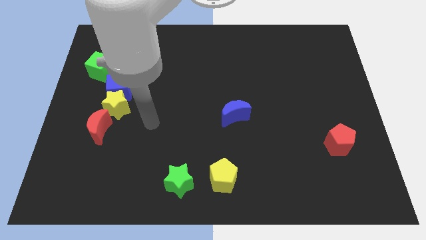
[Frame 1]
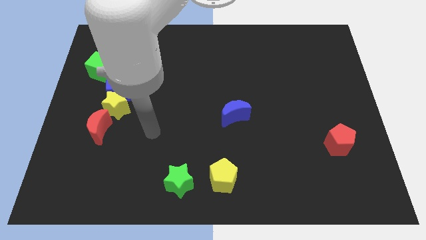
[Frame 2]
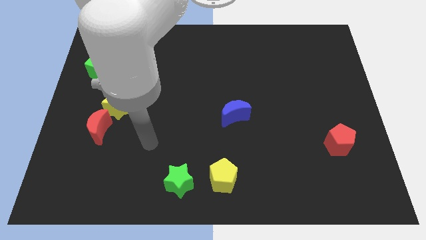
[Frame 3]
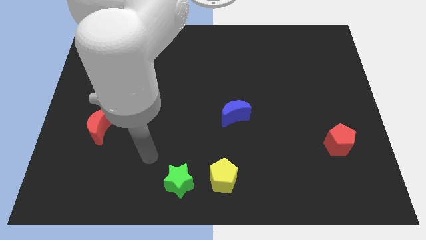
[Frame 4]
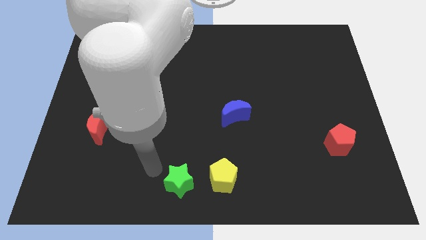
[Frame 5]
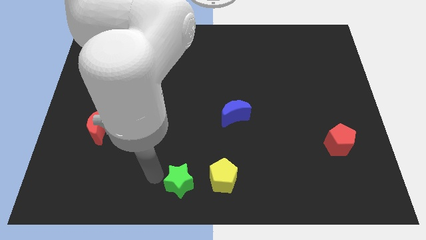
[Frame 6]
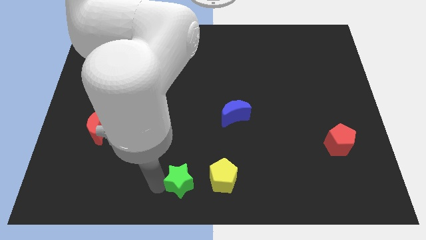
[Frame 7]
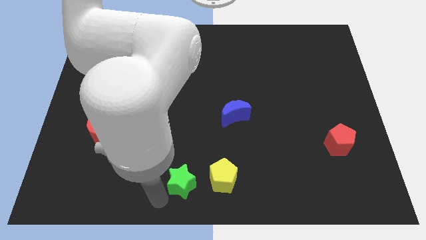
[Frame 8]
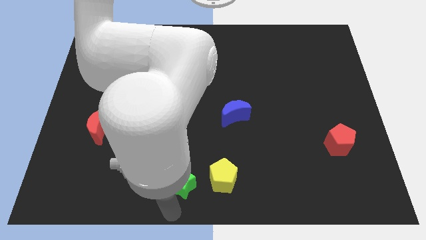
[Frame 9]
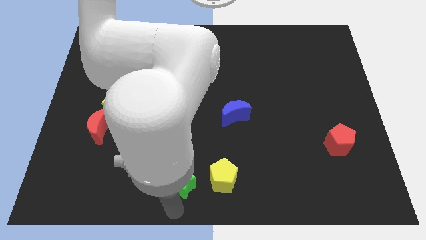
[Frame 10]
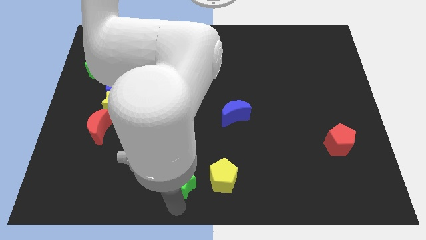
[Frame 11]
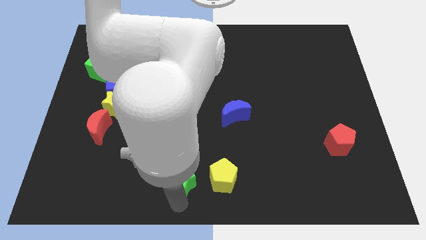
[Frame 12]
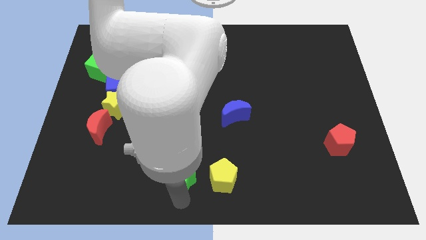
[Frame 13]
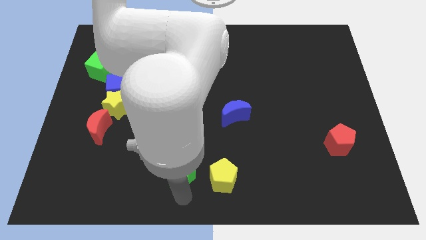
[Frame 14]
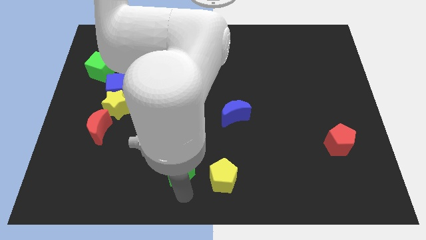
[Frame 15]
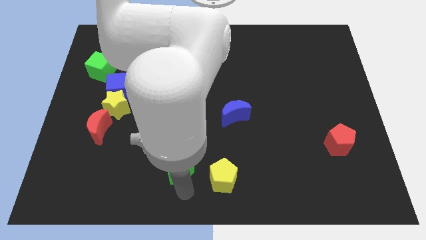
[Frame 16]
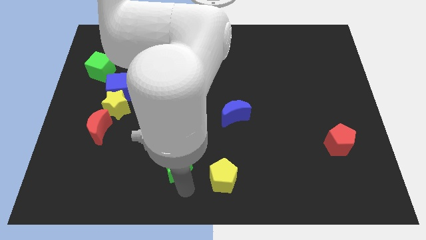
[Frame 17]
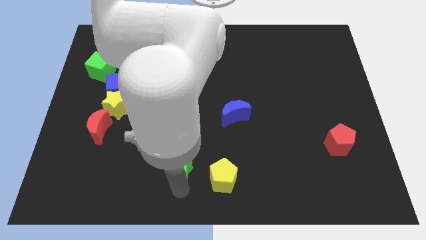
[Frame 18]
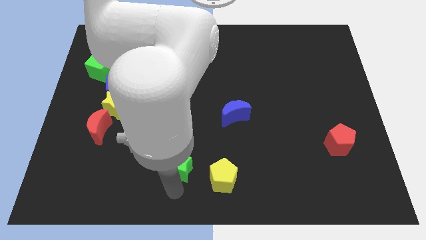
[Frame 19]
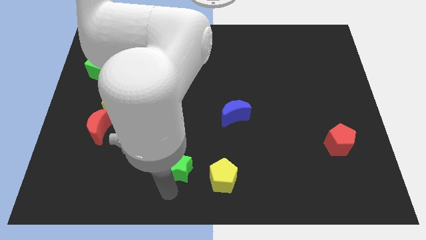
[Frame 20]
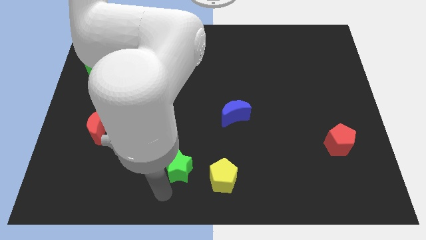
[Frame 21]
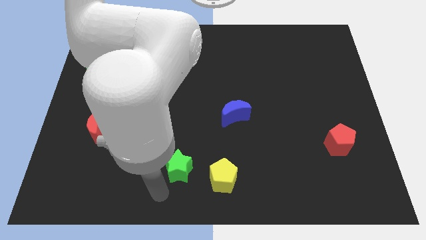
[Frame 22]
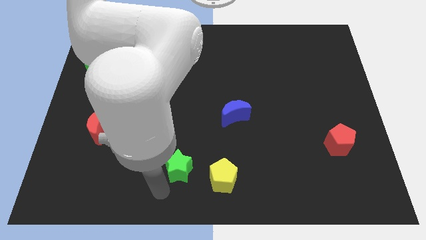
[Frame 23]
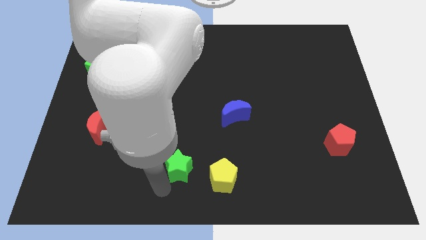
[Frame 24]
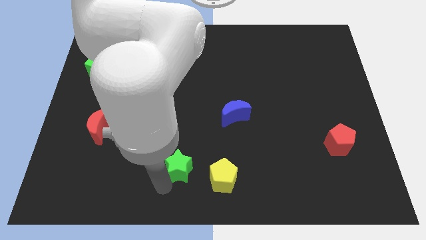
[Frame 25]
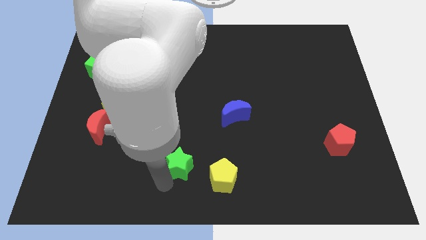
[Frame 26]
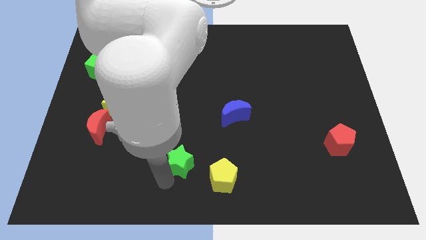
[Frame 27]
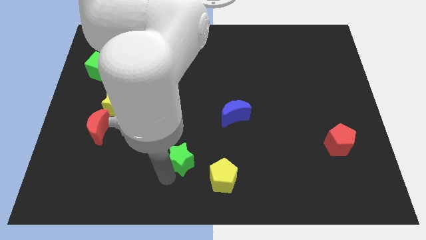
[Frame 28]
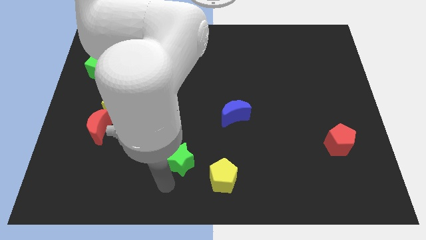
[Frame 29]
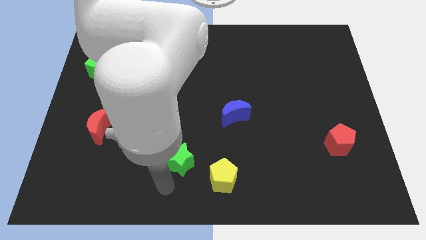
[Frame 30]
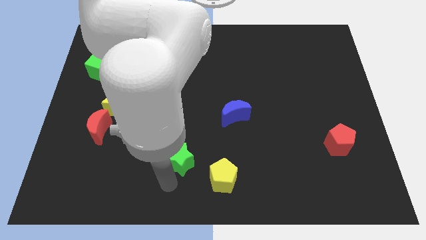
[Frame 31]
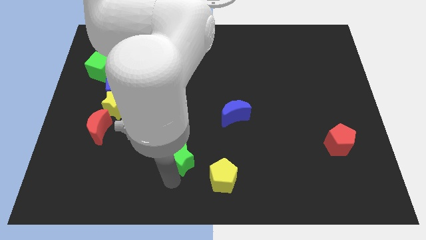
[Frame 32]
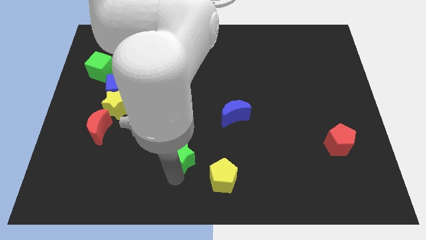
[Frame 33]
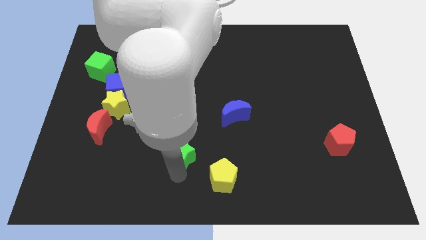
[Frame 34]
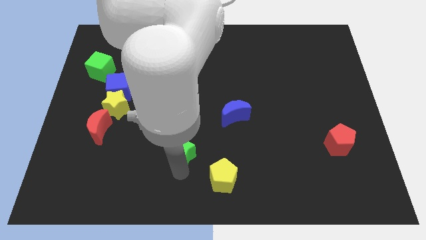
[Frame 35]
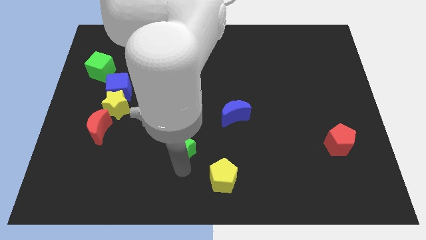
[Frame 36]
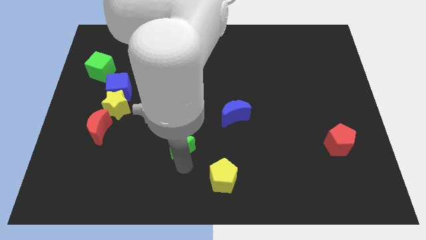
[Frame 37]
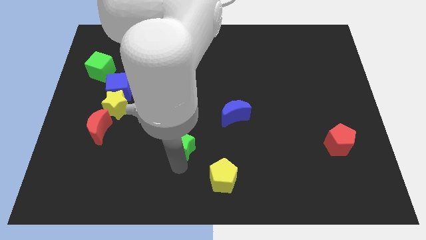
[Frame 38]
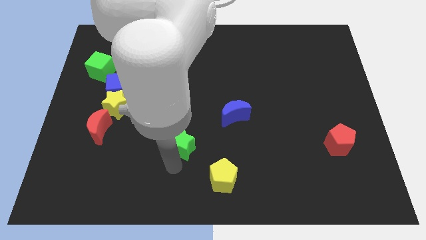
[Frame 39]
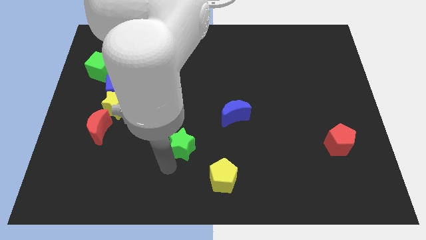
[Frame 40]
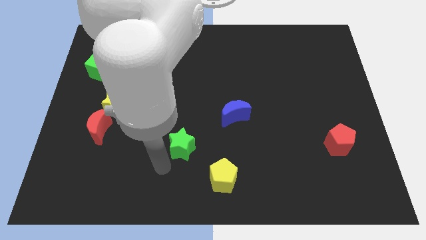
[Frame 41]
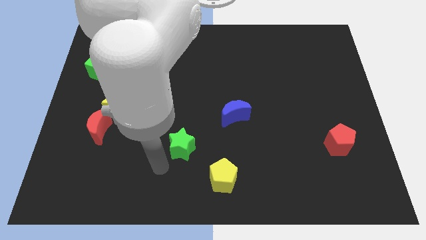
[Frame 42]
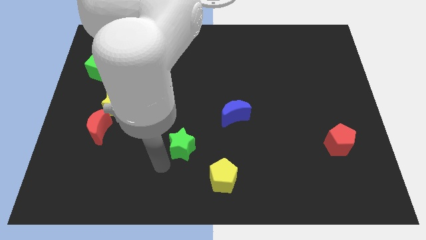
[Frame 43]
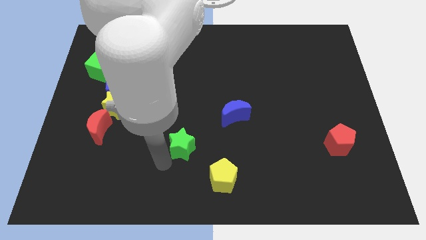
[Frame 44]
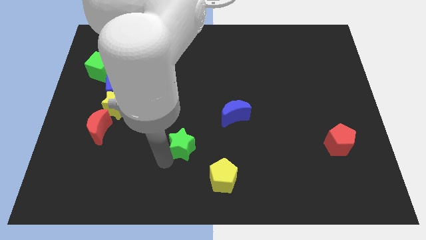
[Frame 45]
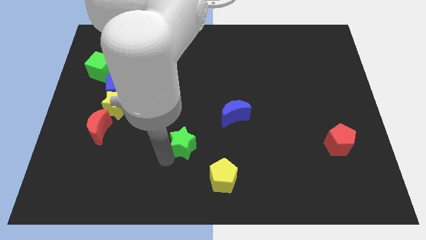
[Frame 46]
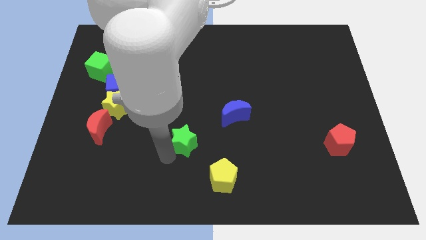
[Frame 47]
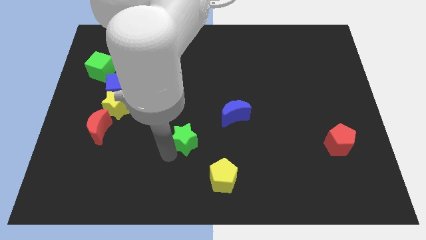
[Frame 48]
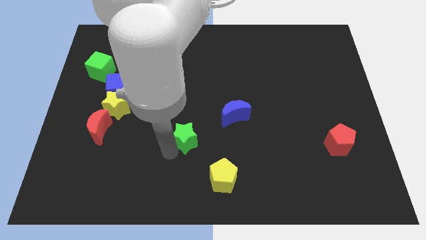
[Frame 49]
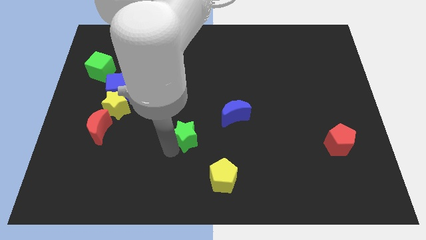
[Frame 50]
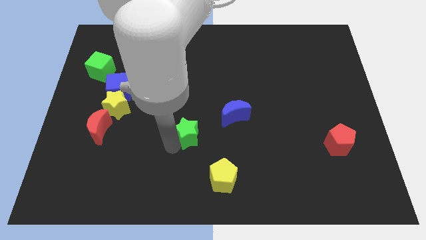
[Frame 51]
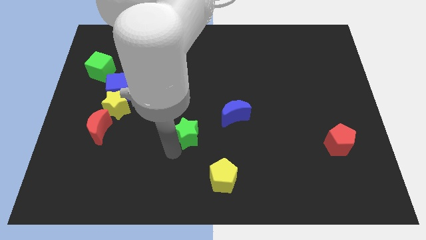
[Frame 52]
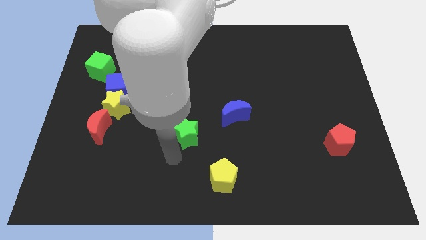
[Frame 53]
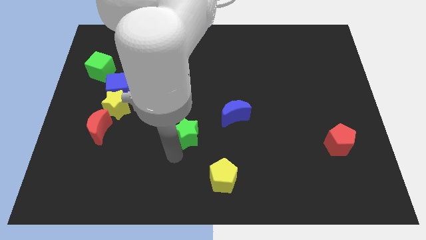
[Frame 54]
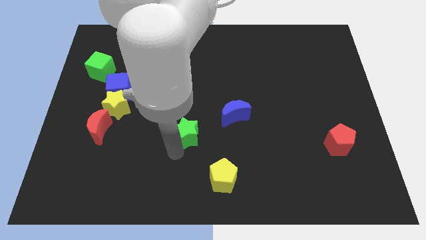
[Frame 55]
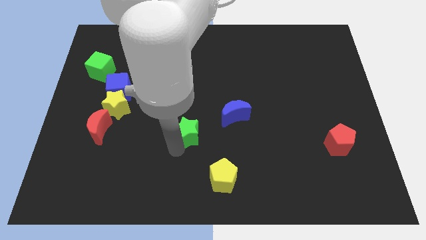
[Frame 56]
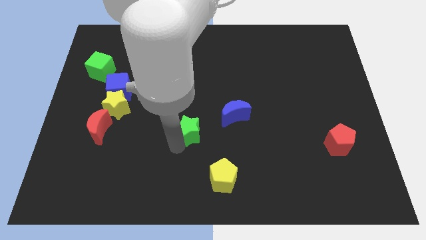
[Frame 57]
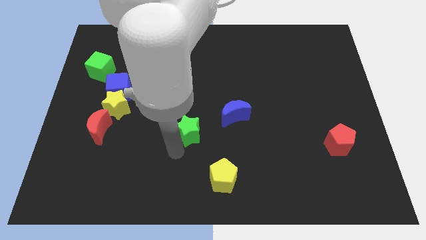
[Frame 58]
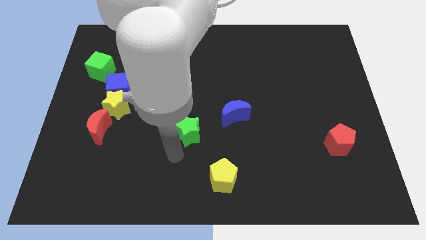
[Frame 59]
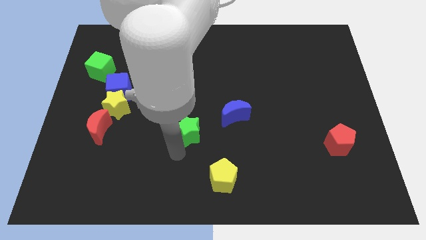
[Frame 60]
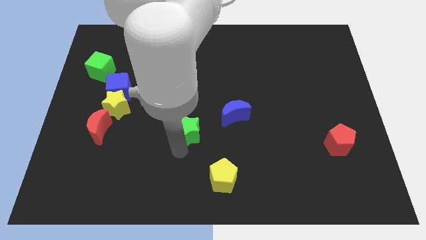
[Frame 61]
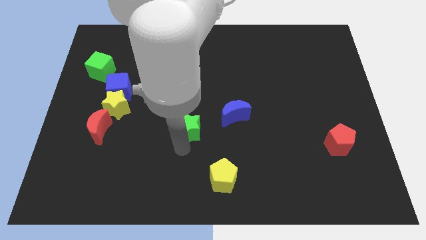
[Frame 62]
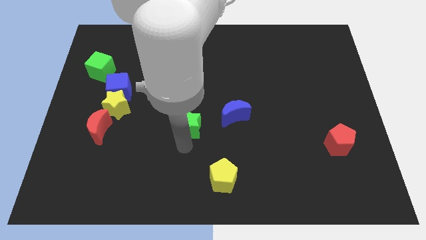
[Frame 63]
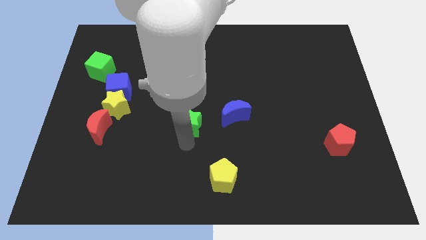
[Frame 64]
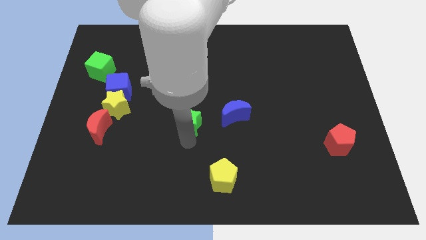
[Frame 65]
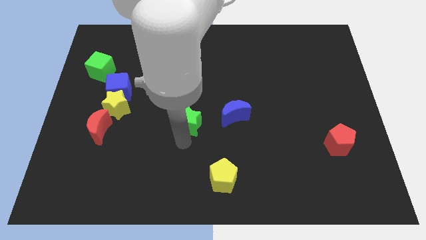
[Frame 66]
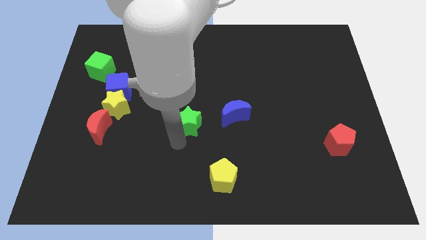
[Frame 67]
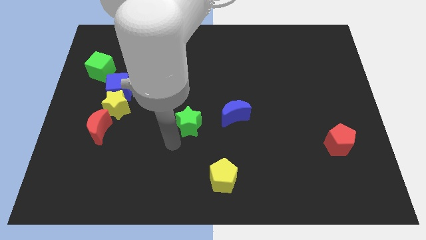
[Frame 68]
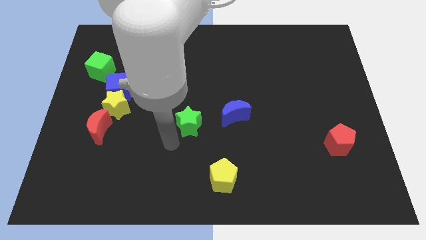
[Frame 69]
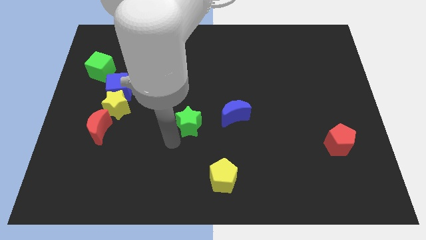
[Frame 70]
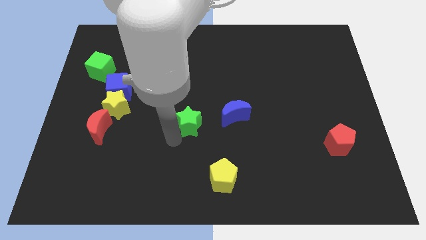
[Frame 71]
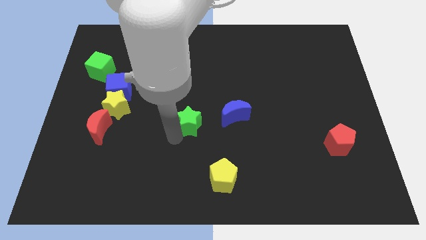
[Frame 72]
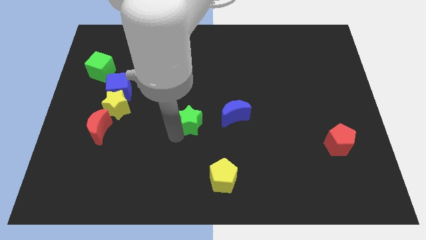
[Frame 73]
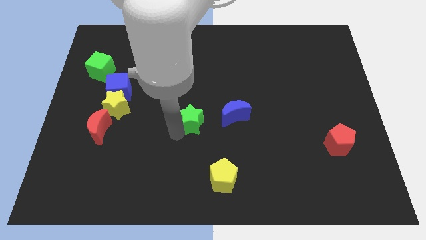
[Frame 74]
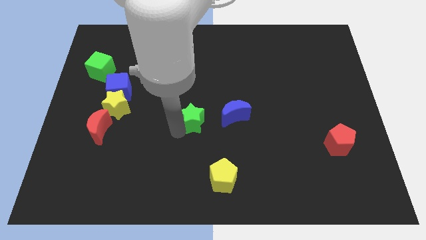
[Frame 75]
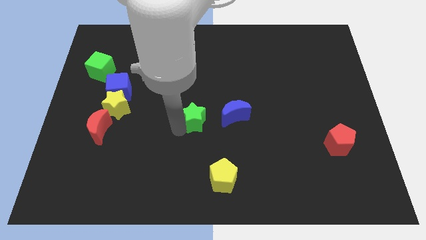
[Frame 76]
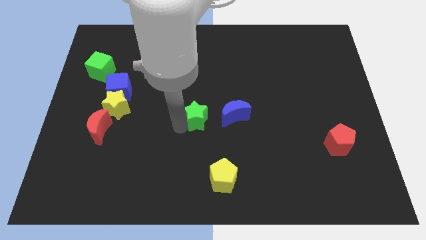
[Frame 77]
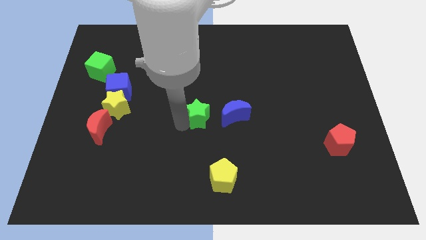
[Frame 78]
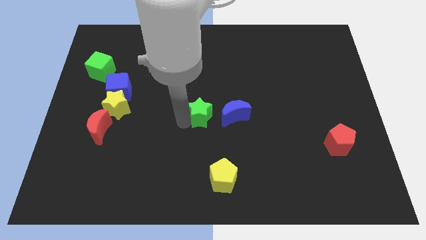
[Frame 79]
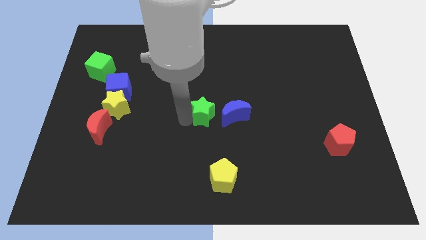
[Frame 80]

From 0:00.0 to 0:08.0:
push the green star diagonally up and to the left of the blue moon
